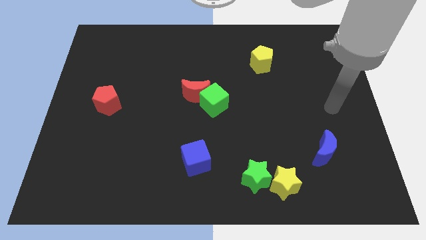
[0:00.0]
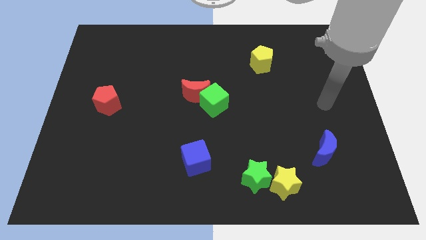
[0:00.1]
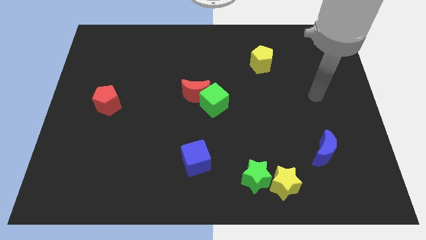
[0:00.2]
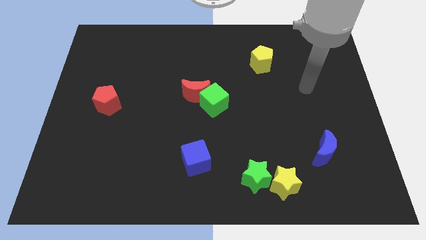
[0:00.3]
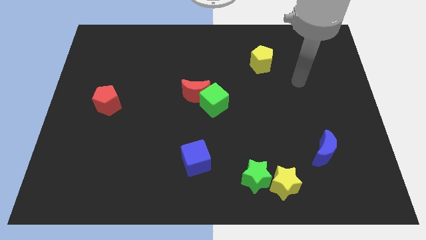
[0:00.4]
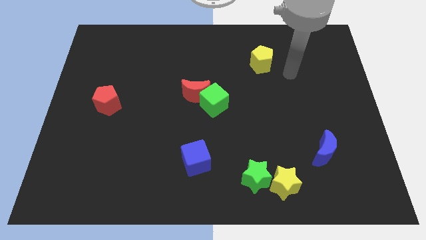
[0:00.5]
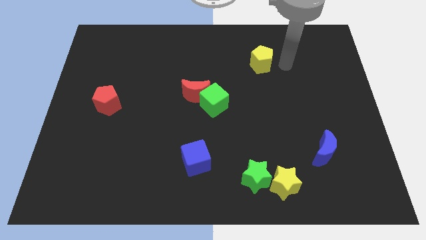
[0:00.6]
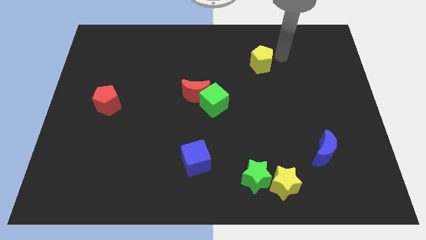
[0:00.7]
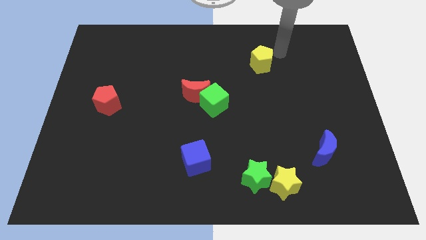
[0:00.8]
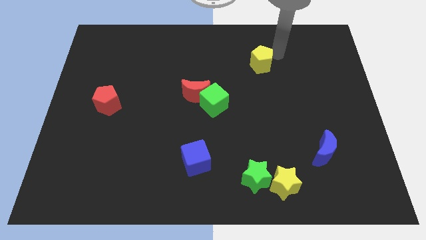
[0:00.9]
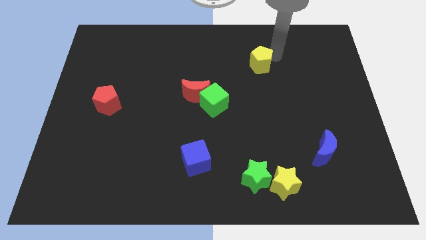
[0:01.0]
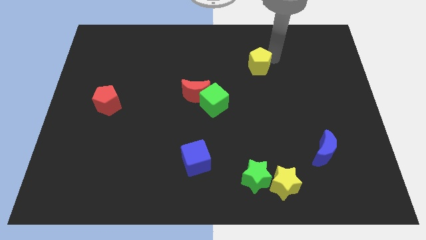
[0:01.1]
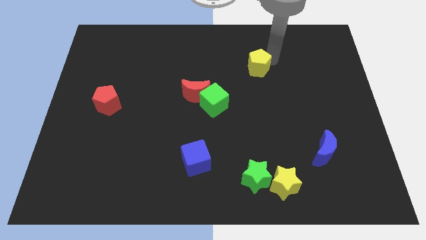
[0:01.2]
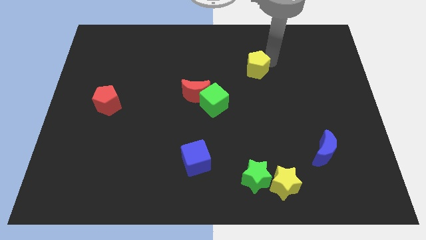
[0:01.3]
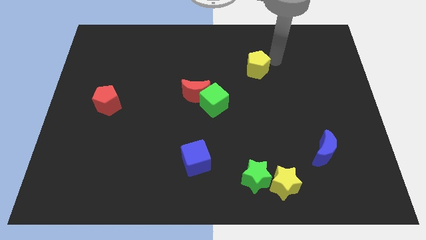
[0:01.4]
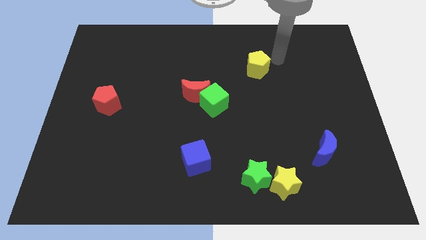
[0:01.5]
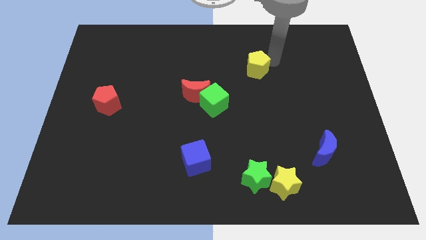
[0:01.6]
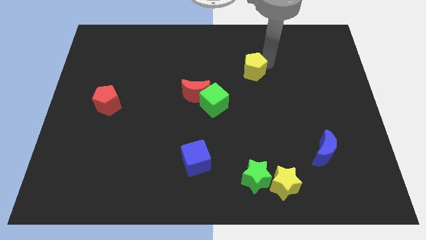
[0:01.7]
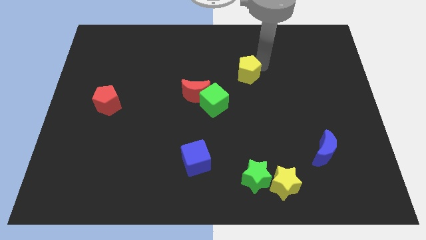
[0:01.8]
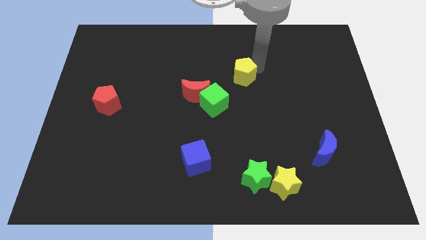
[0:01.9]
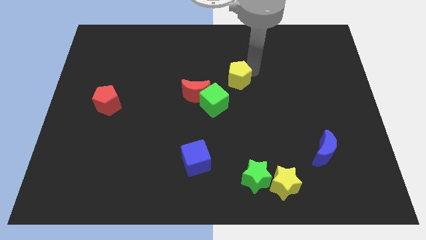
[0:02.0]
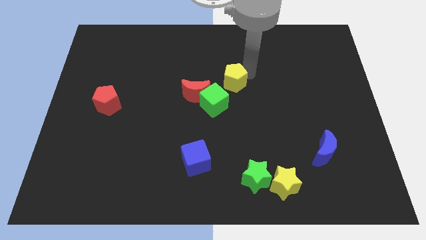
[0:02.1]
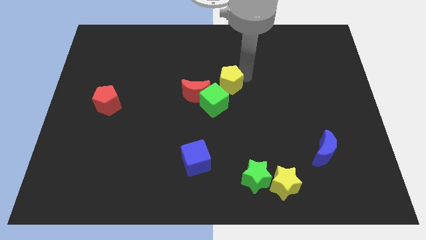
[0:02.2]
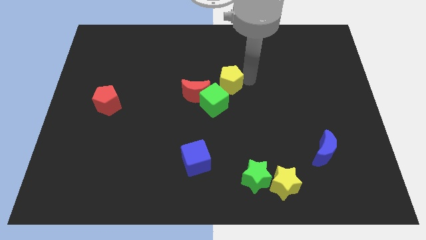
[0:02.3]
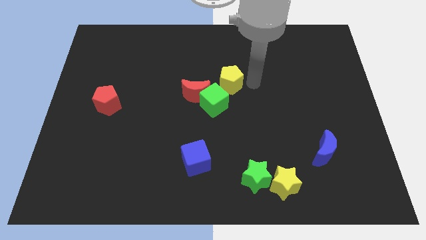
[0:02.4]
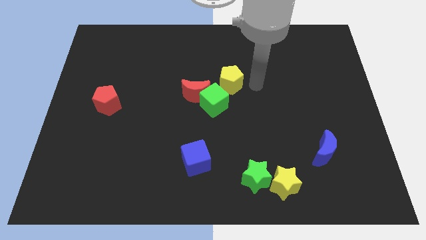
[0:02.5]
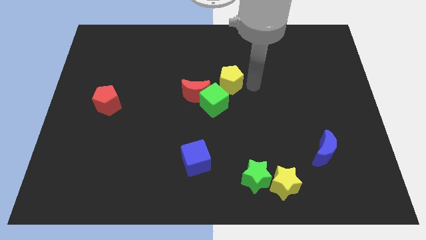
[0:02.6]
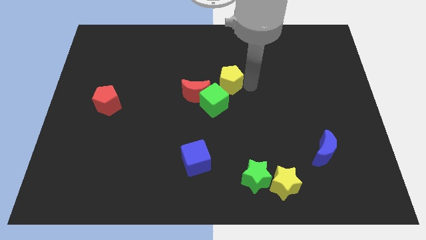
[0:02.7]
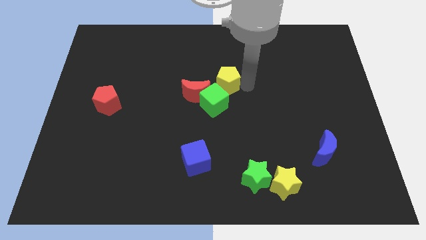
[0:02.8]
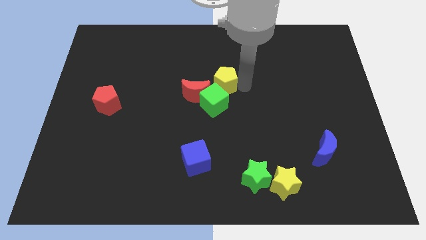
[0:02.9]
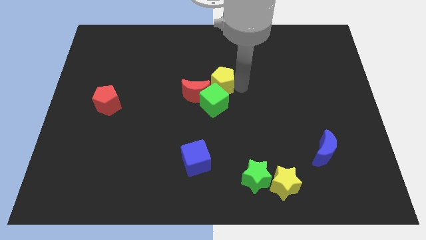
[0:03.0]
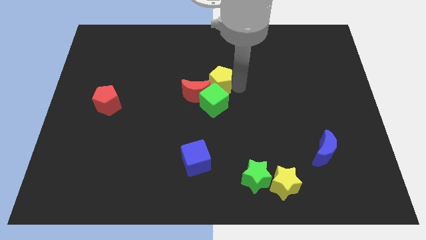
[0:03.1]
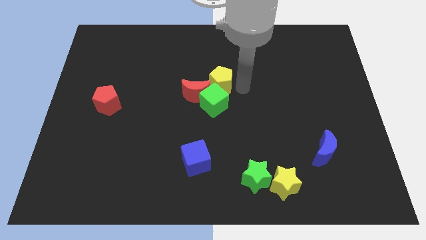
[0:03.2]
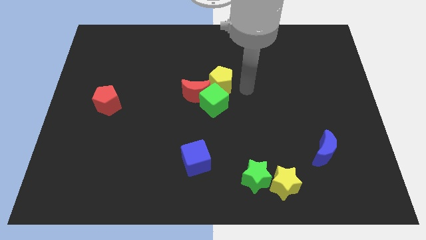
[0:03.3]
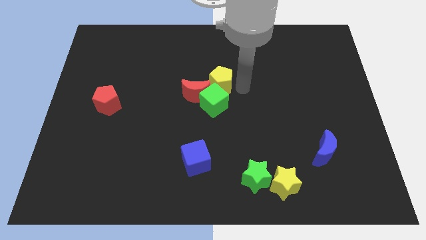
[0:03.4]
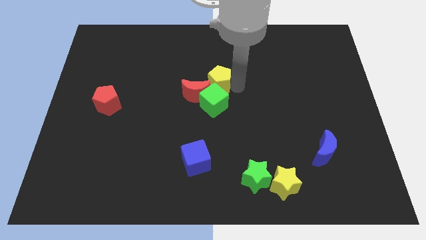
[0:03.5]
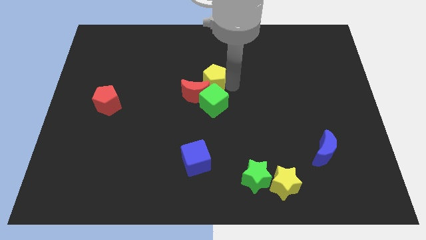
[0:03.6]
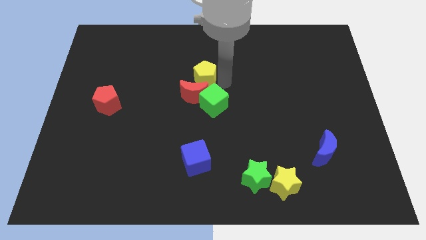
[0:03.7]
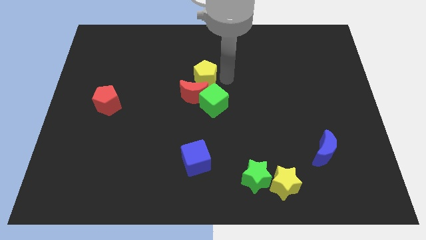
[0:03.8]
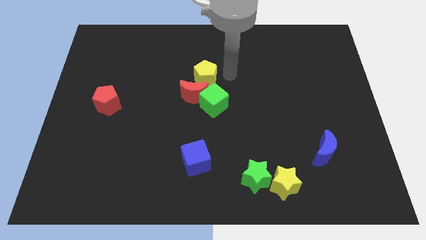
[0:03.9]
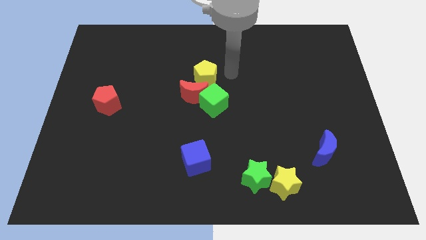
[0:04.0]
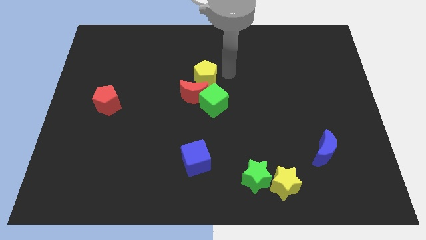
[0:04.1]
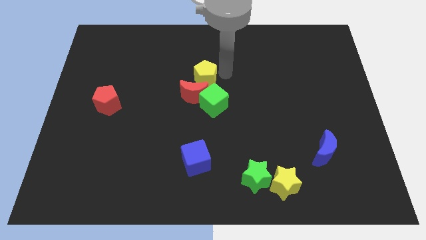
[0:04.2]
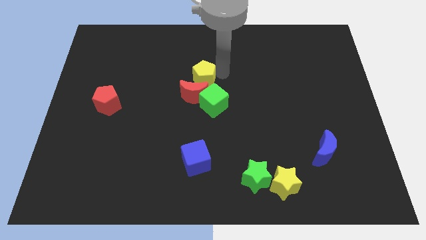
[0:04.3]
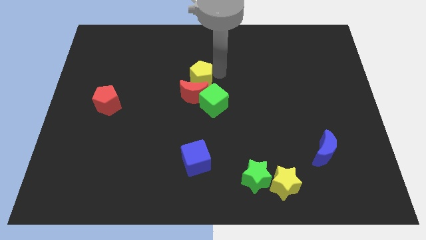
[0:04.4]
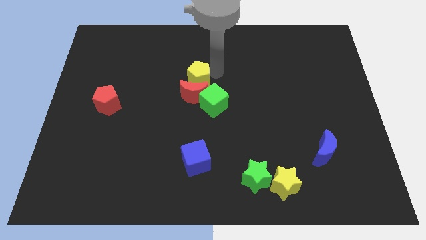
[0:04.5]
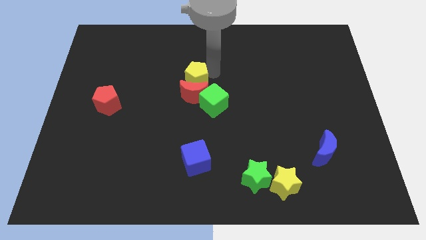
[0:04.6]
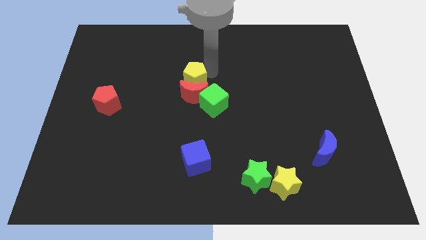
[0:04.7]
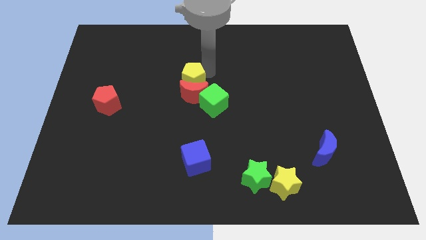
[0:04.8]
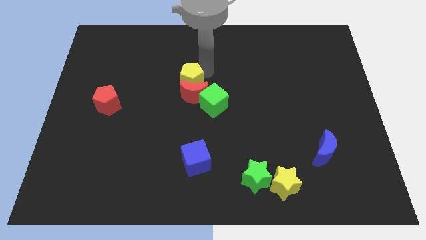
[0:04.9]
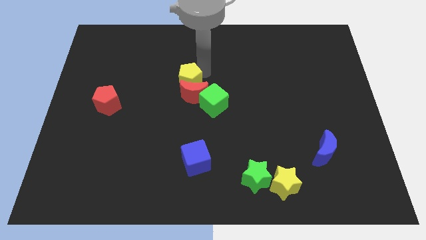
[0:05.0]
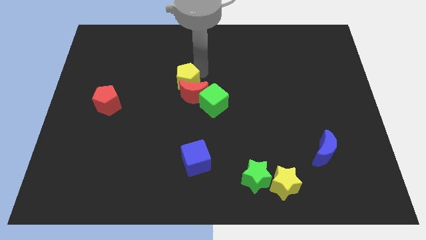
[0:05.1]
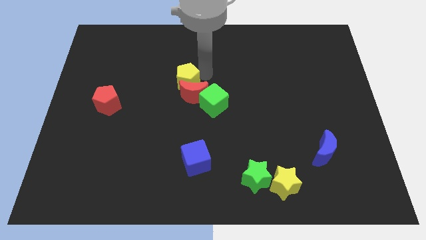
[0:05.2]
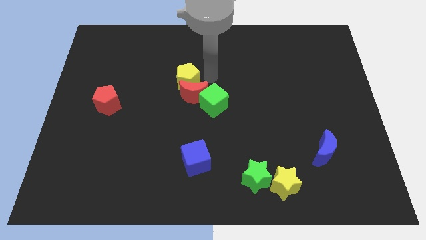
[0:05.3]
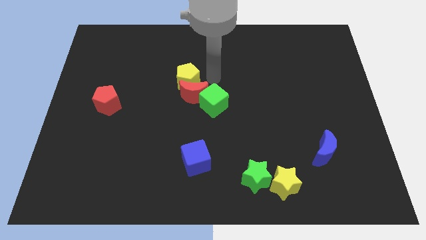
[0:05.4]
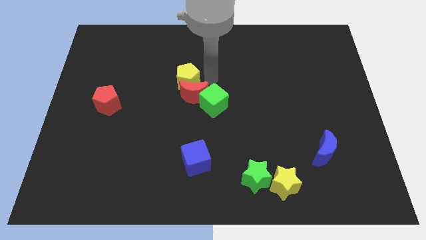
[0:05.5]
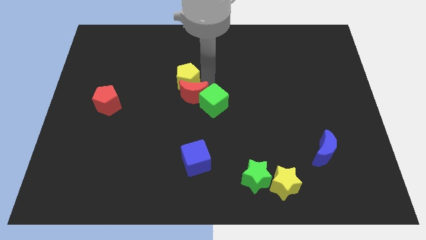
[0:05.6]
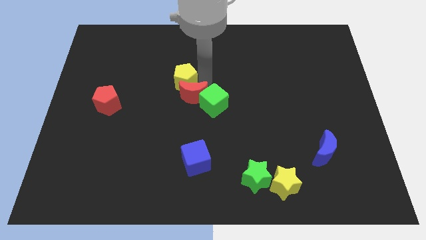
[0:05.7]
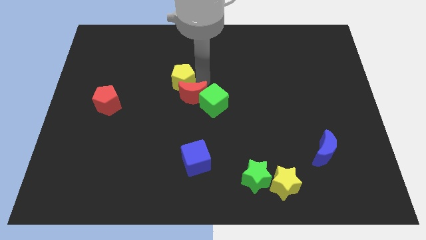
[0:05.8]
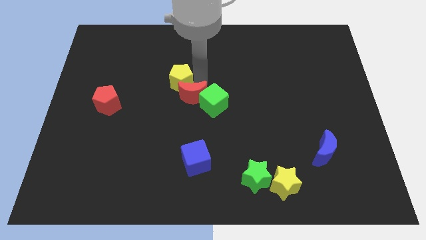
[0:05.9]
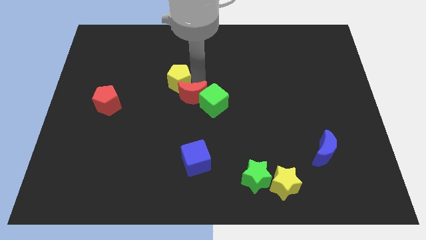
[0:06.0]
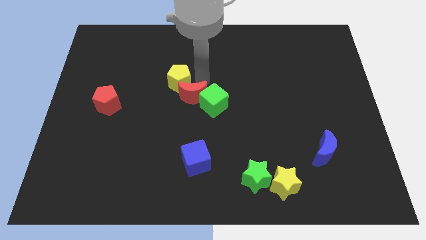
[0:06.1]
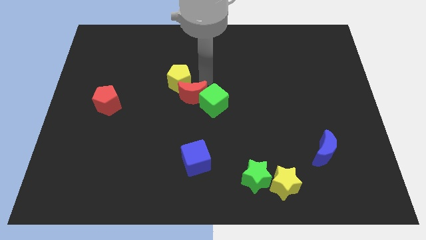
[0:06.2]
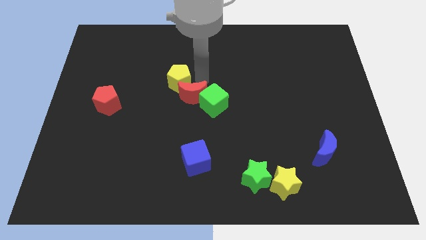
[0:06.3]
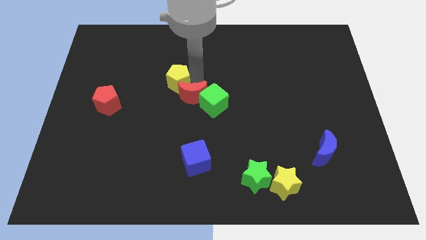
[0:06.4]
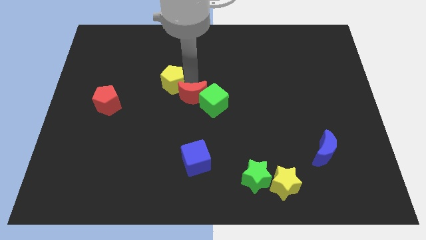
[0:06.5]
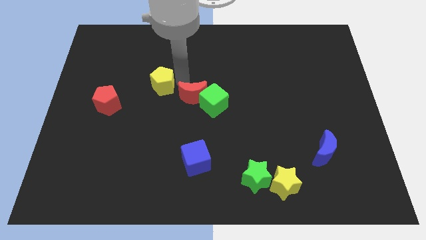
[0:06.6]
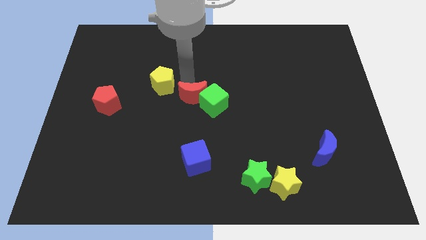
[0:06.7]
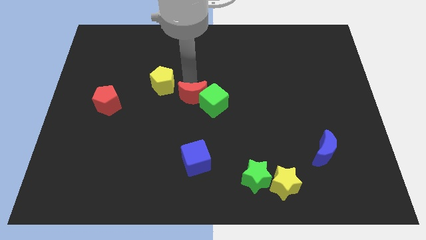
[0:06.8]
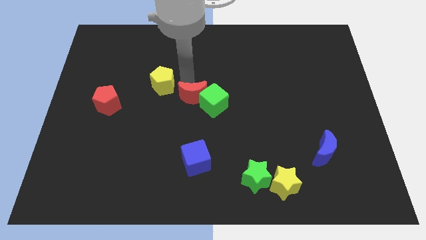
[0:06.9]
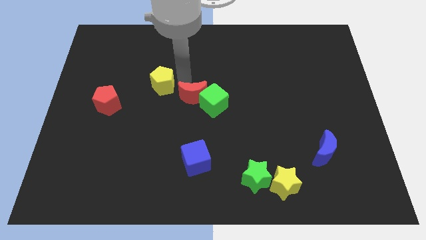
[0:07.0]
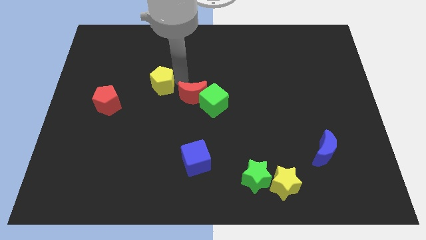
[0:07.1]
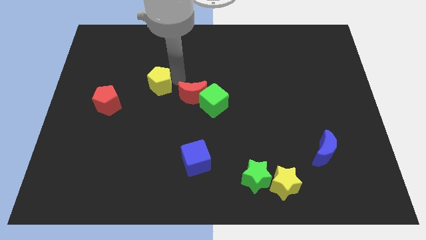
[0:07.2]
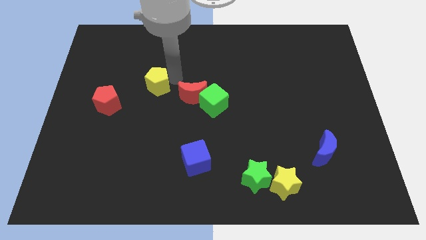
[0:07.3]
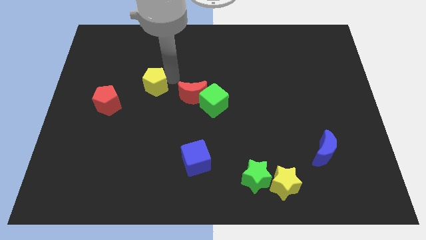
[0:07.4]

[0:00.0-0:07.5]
move the yellow pentagon to the top right of the red pentagon
